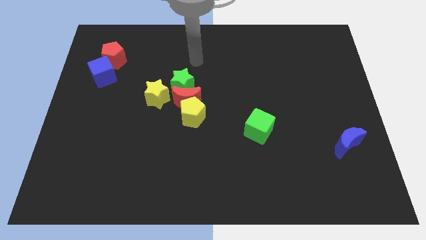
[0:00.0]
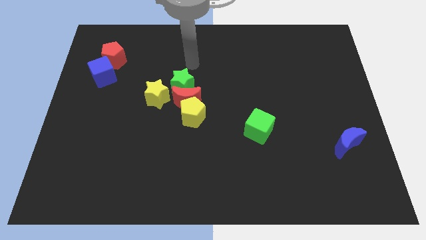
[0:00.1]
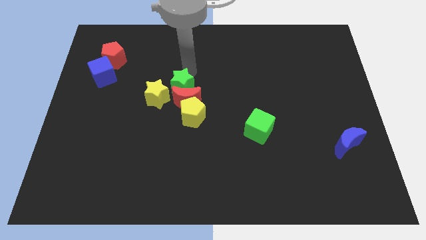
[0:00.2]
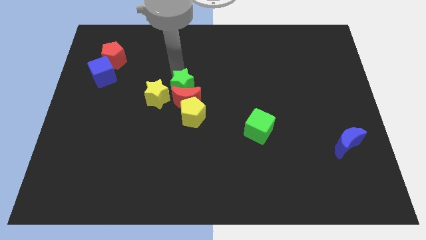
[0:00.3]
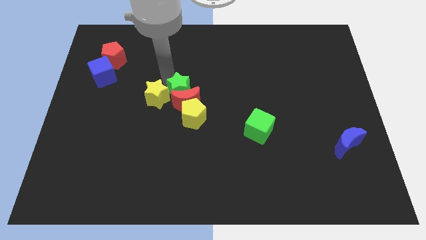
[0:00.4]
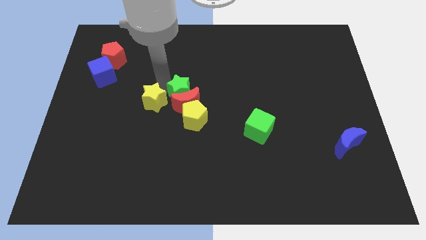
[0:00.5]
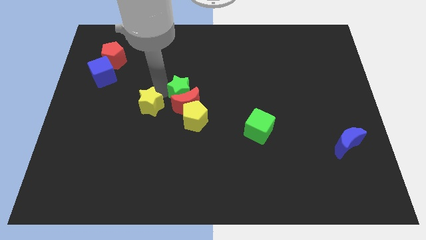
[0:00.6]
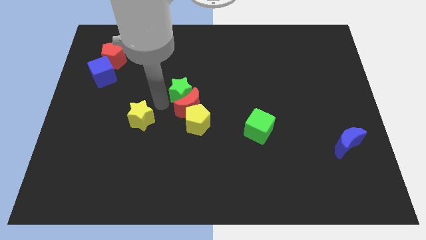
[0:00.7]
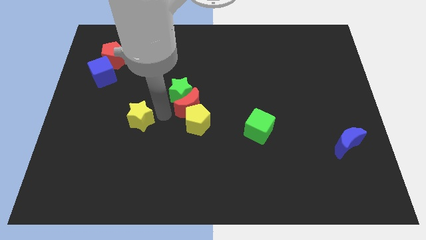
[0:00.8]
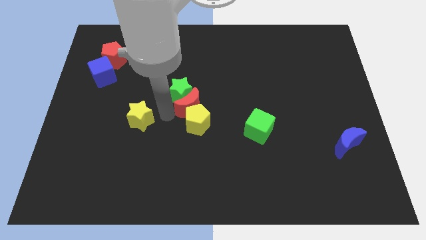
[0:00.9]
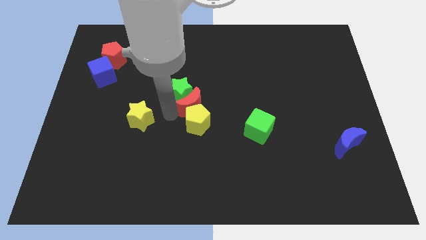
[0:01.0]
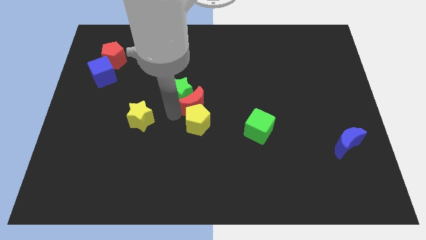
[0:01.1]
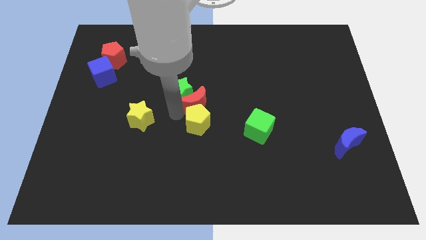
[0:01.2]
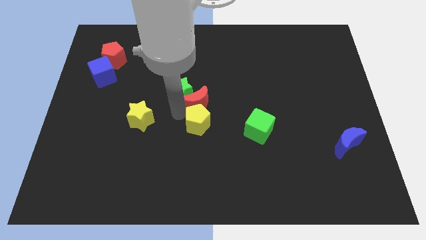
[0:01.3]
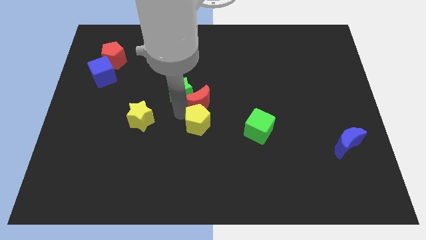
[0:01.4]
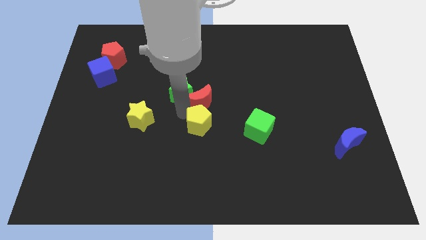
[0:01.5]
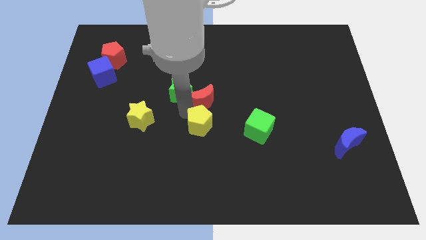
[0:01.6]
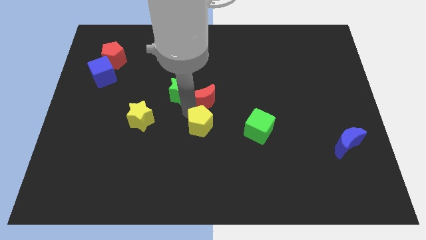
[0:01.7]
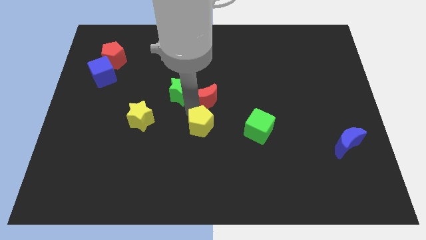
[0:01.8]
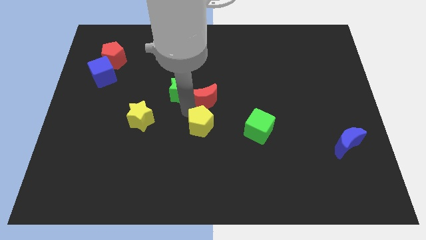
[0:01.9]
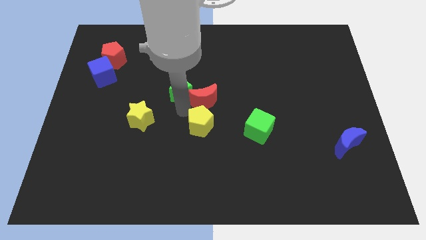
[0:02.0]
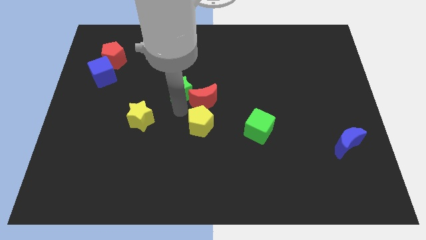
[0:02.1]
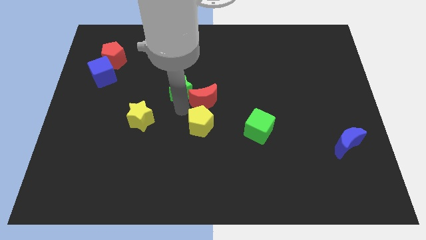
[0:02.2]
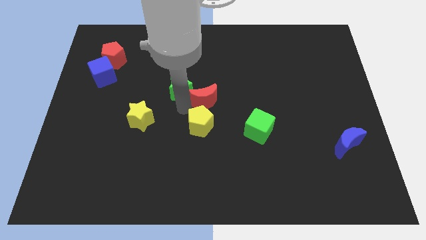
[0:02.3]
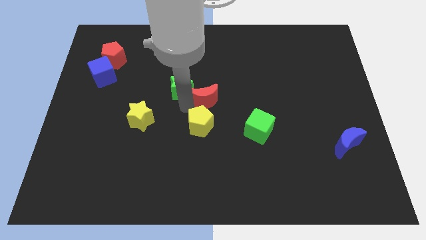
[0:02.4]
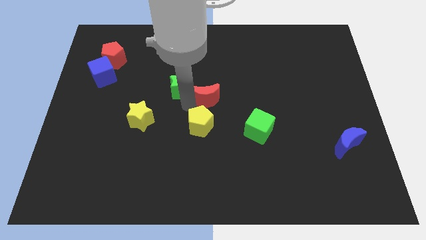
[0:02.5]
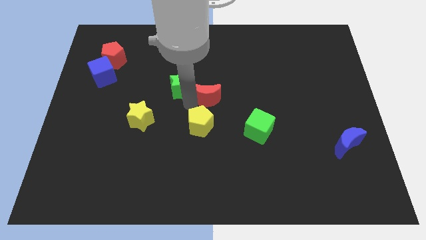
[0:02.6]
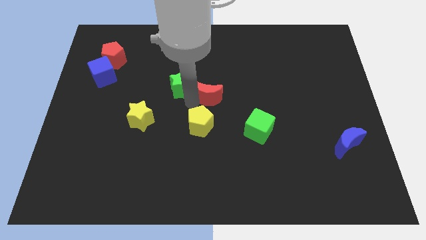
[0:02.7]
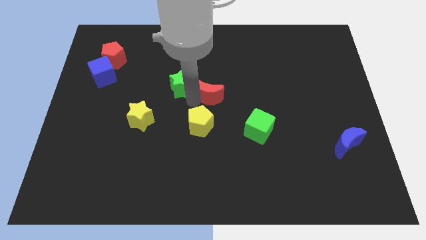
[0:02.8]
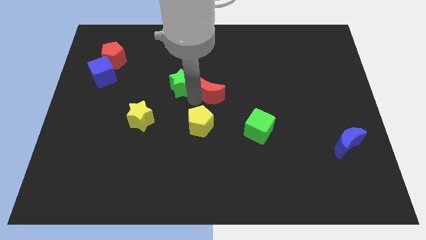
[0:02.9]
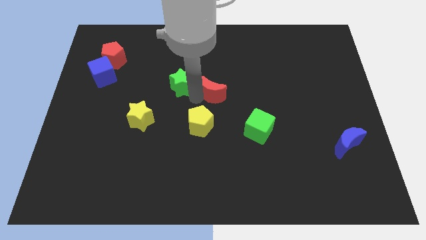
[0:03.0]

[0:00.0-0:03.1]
pull the red moon apart from the clump

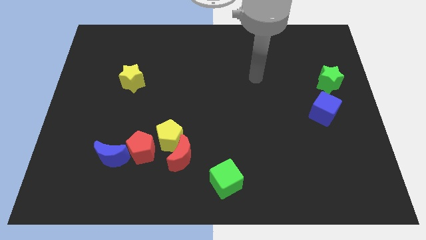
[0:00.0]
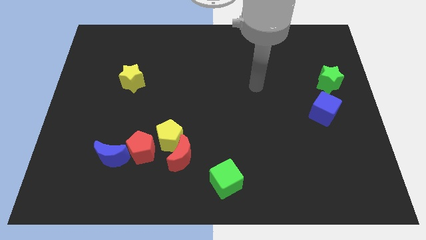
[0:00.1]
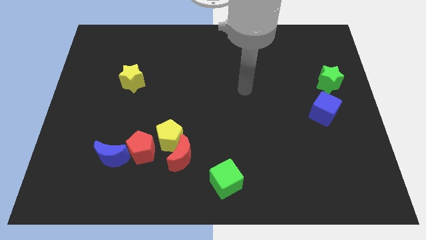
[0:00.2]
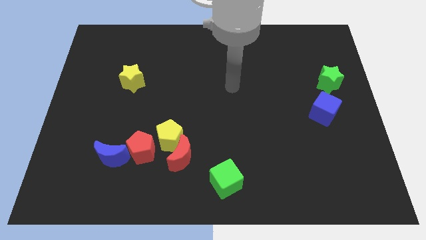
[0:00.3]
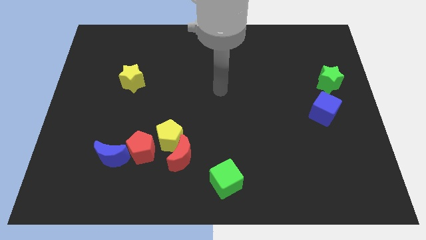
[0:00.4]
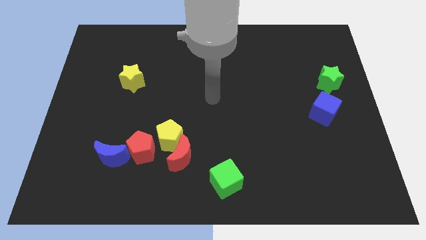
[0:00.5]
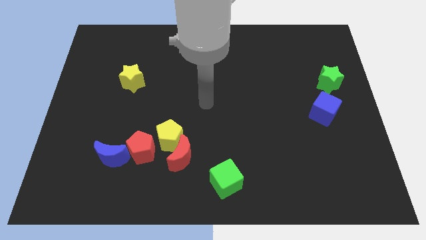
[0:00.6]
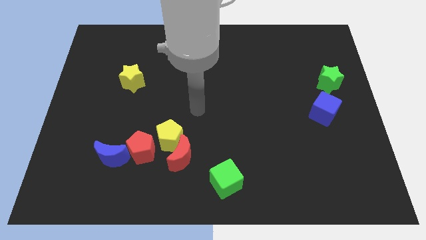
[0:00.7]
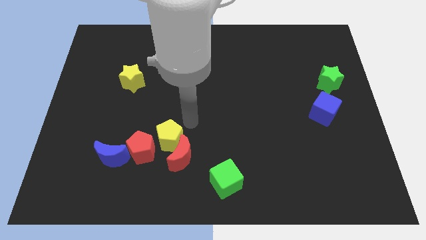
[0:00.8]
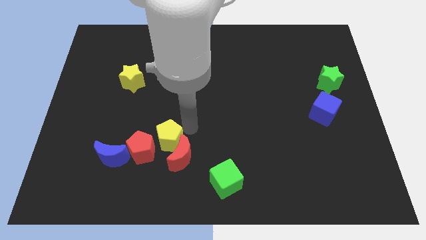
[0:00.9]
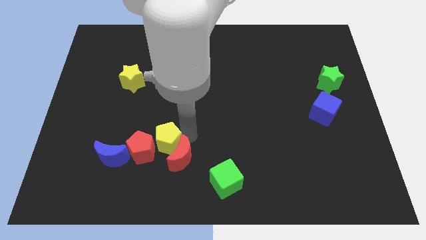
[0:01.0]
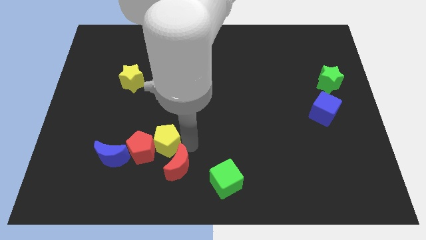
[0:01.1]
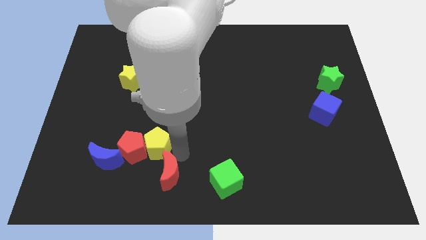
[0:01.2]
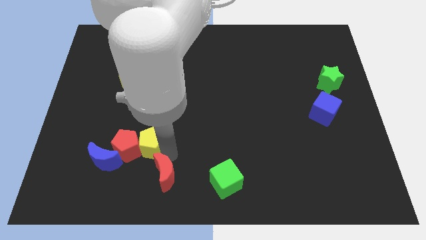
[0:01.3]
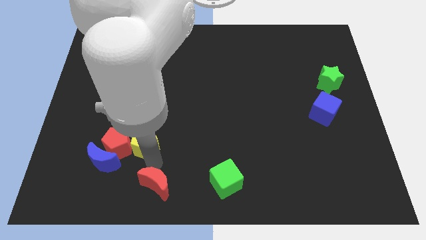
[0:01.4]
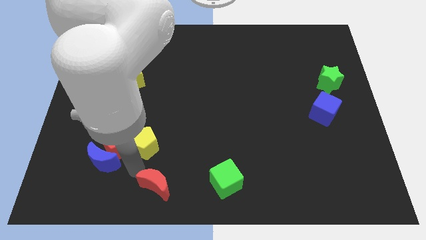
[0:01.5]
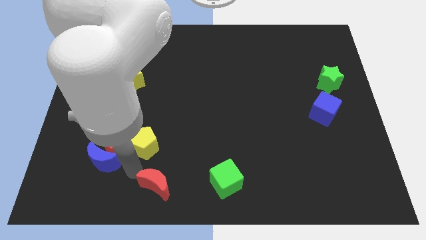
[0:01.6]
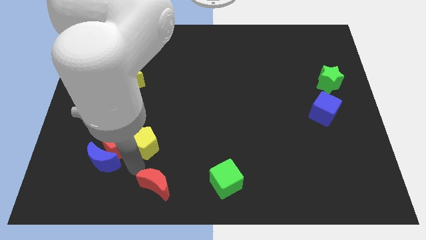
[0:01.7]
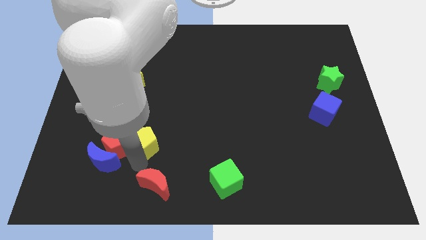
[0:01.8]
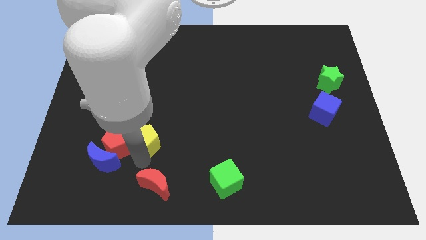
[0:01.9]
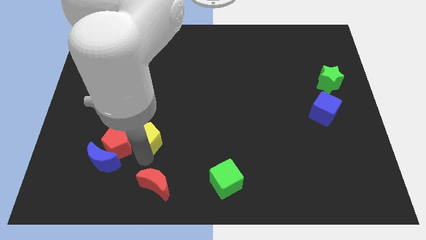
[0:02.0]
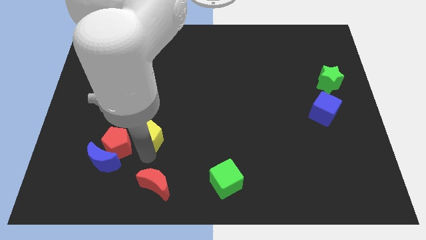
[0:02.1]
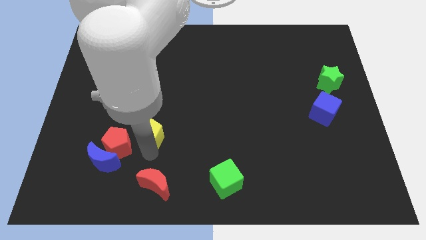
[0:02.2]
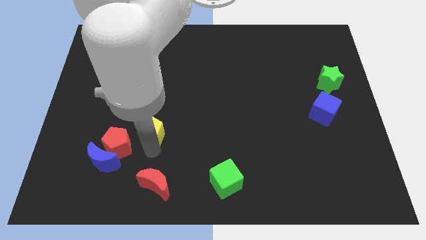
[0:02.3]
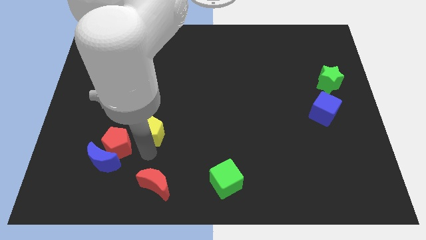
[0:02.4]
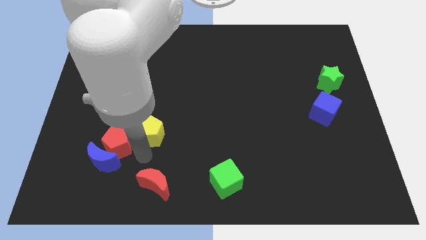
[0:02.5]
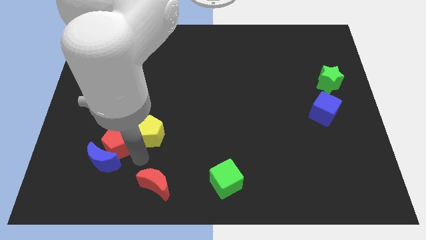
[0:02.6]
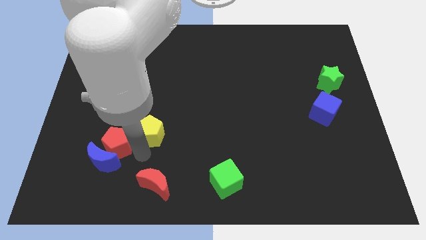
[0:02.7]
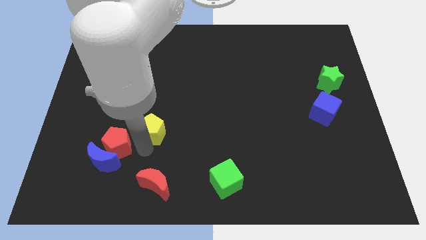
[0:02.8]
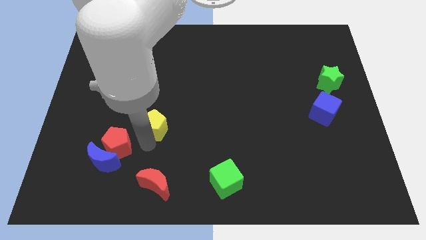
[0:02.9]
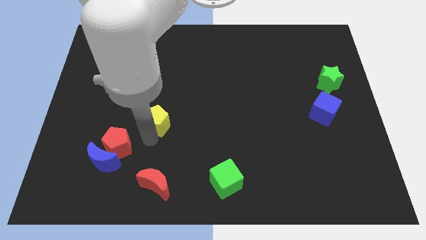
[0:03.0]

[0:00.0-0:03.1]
move the yellow pentagon away from the red moon and red pentagon

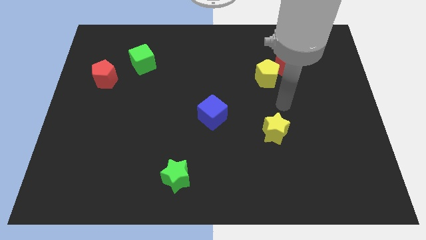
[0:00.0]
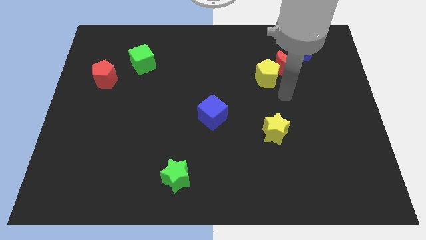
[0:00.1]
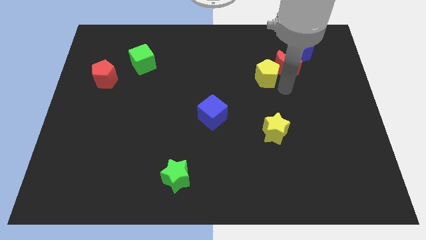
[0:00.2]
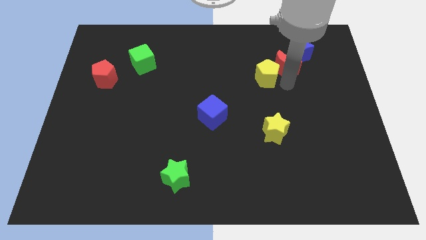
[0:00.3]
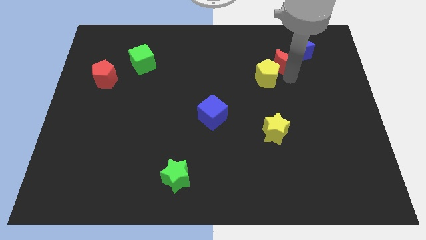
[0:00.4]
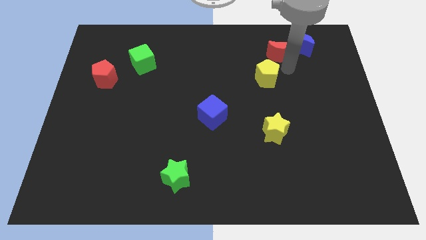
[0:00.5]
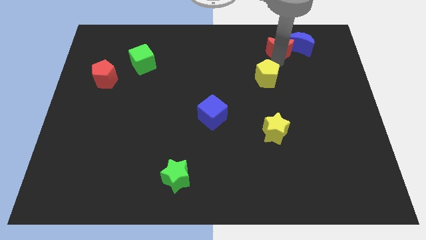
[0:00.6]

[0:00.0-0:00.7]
separate the yellow pentagon from the red moon

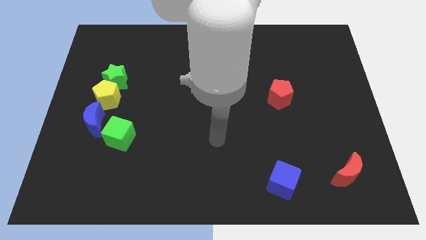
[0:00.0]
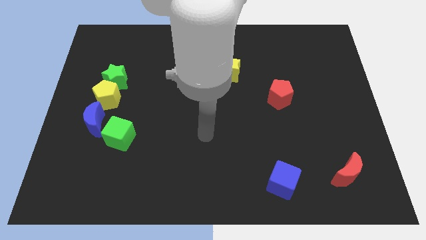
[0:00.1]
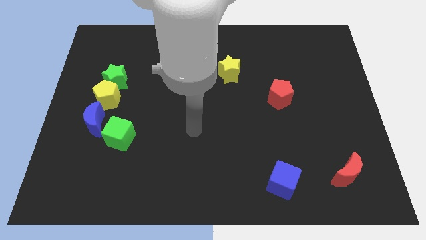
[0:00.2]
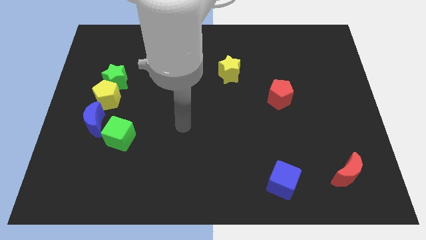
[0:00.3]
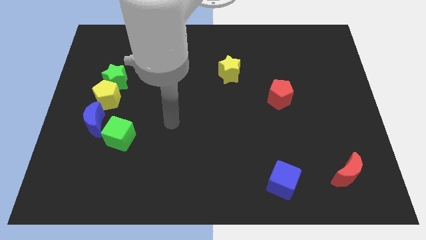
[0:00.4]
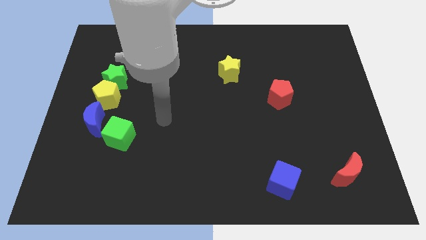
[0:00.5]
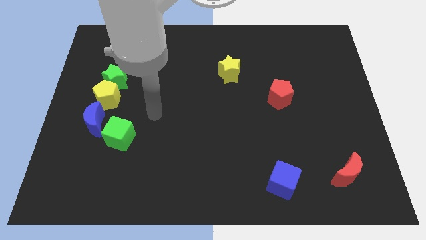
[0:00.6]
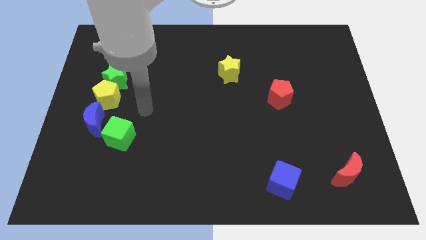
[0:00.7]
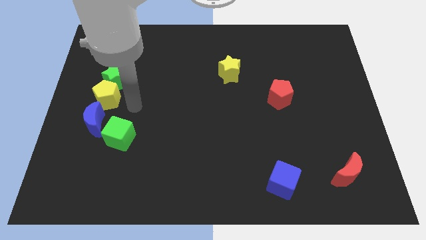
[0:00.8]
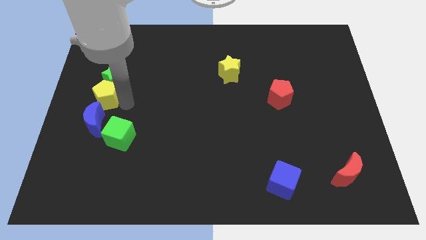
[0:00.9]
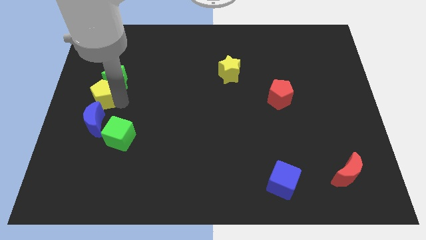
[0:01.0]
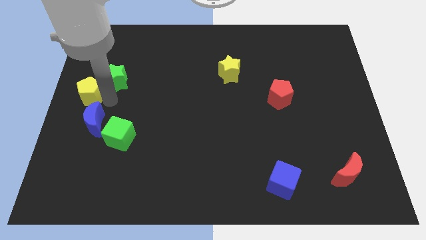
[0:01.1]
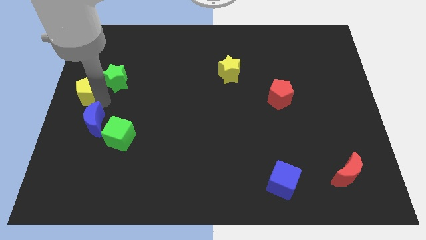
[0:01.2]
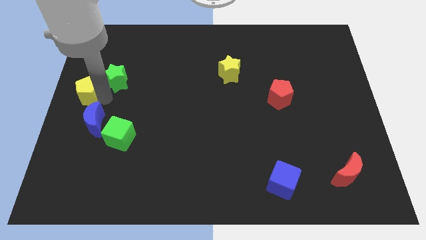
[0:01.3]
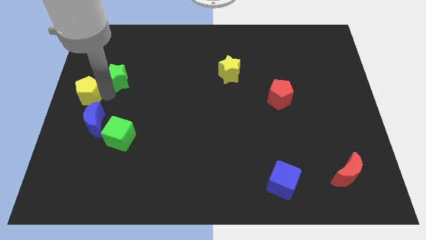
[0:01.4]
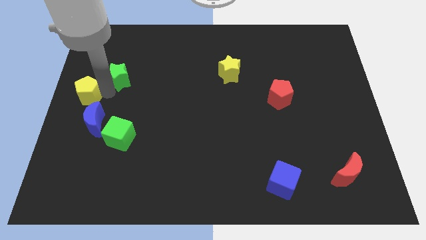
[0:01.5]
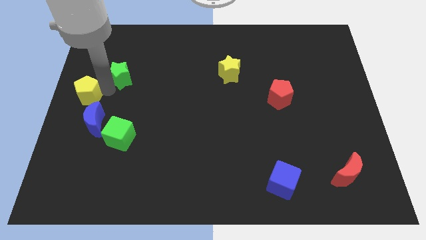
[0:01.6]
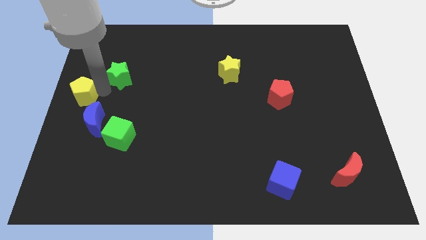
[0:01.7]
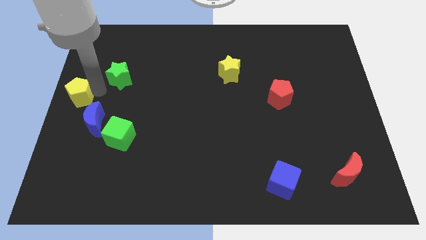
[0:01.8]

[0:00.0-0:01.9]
move the green star away from the yellow pentagon

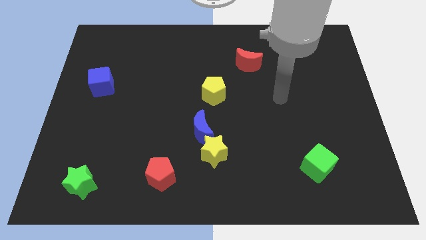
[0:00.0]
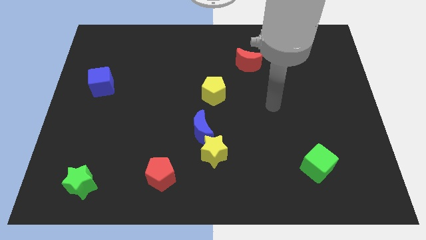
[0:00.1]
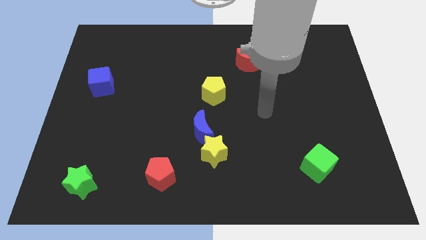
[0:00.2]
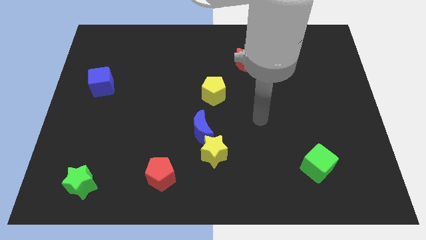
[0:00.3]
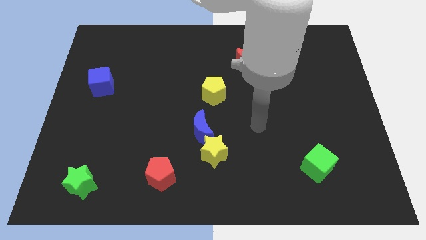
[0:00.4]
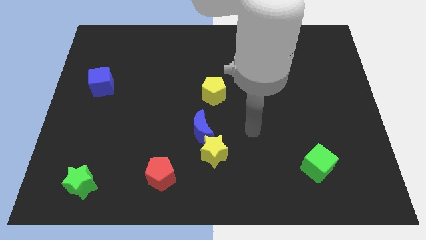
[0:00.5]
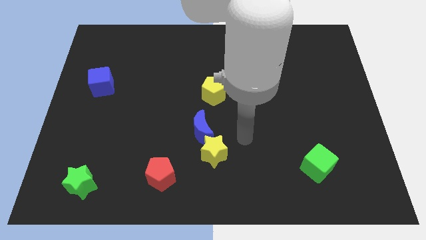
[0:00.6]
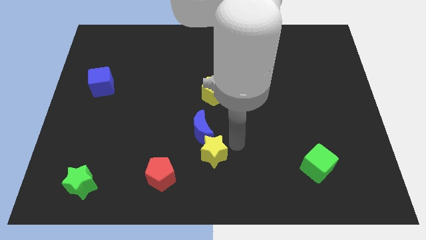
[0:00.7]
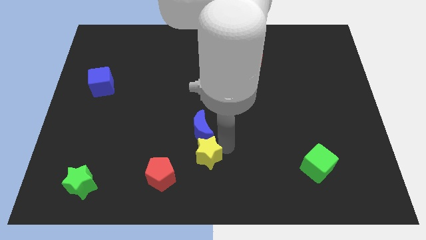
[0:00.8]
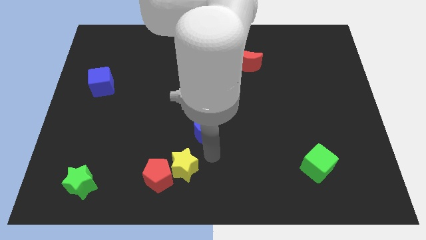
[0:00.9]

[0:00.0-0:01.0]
move the blue moon away from the yellow star
